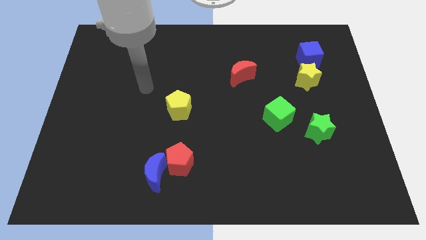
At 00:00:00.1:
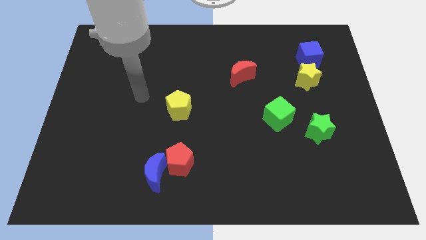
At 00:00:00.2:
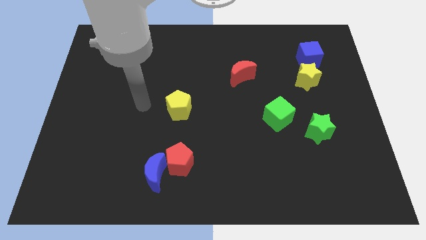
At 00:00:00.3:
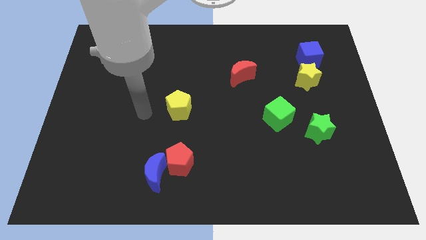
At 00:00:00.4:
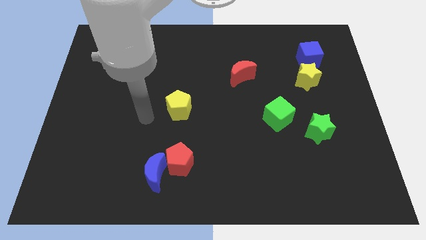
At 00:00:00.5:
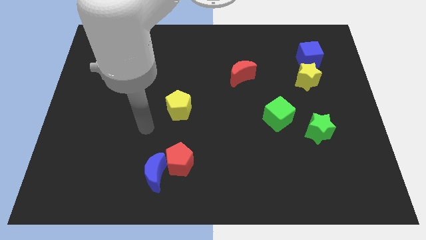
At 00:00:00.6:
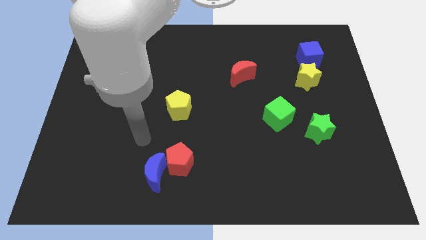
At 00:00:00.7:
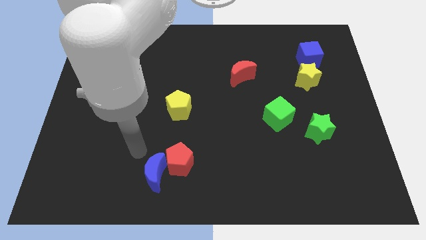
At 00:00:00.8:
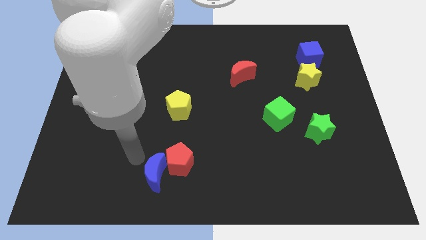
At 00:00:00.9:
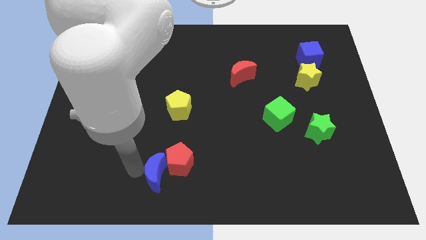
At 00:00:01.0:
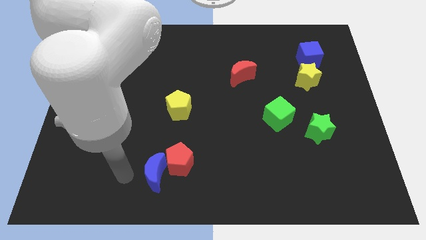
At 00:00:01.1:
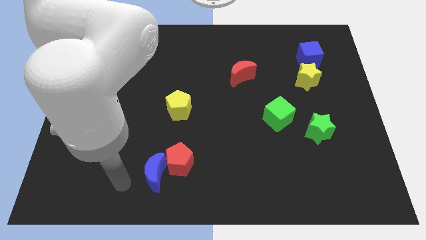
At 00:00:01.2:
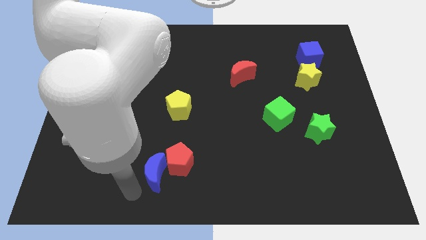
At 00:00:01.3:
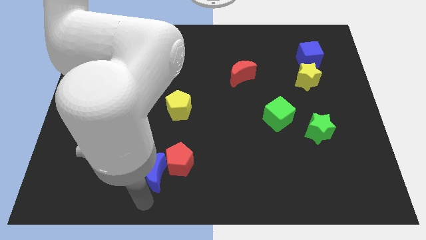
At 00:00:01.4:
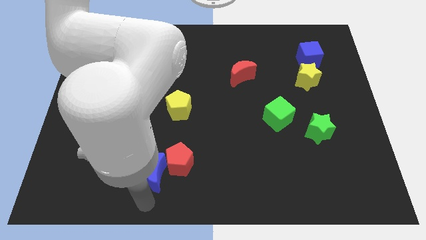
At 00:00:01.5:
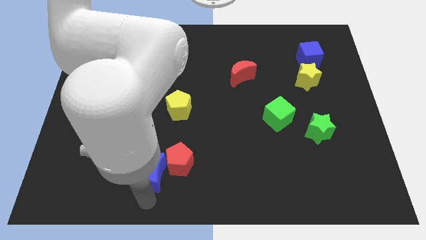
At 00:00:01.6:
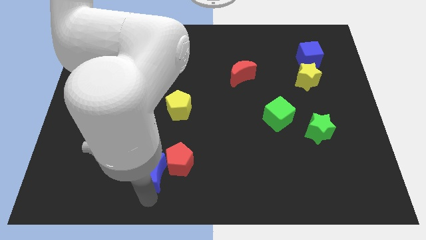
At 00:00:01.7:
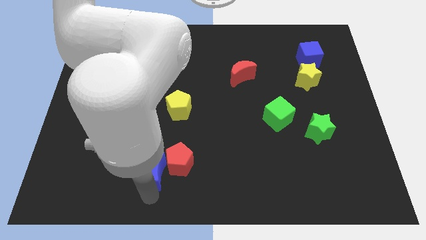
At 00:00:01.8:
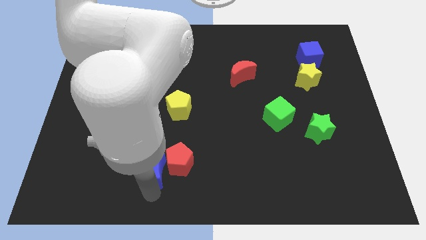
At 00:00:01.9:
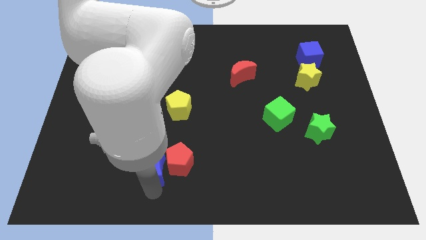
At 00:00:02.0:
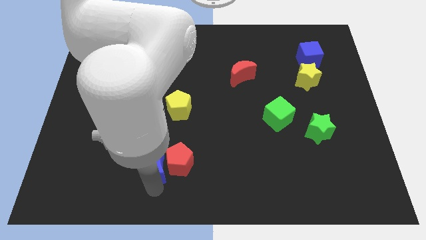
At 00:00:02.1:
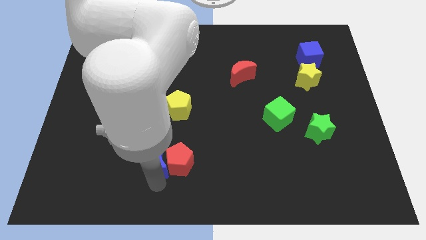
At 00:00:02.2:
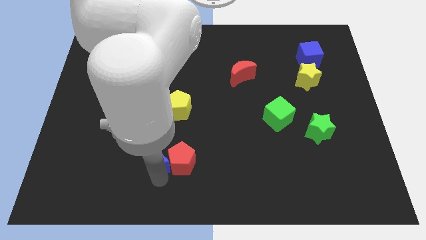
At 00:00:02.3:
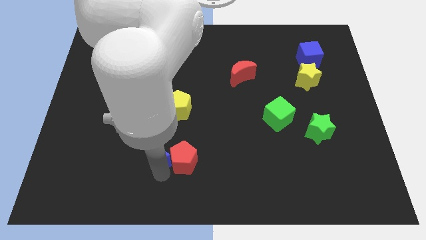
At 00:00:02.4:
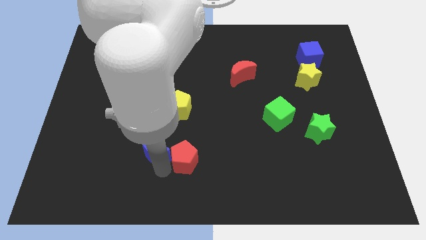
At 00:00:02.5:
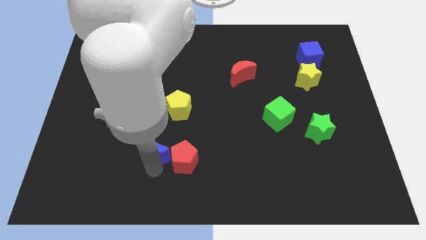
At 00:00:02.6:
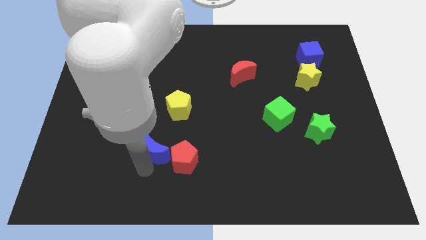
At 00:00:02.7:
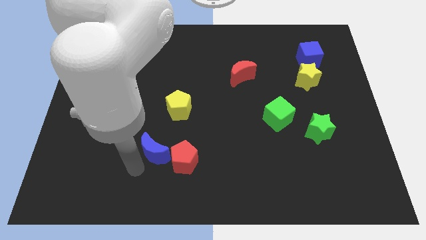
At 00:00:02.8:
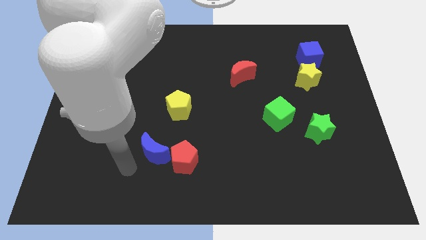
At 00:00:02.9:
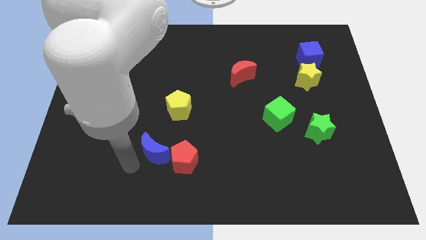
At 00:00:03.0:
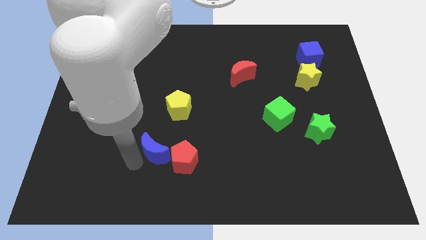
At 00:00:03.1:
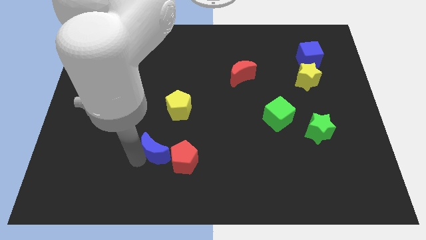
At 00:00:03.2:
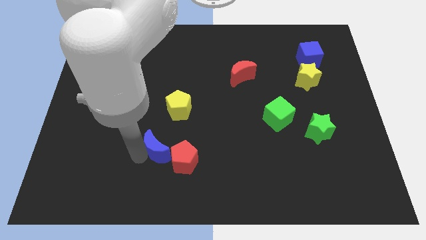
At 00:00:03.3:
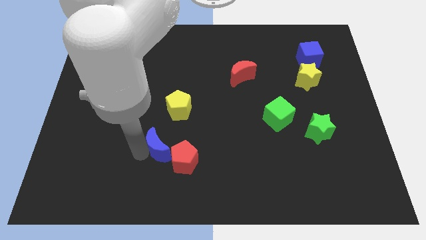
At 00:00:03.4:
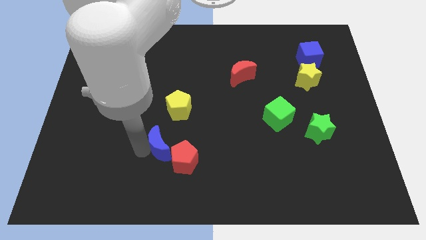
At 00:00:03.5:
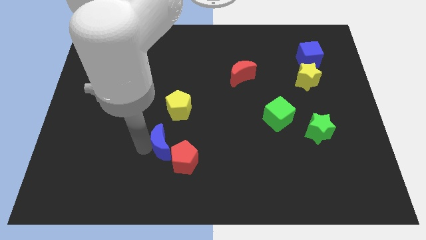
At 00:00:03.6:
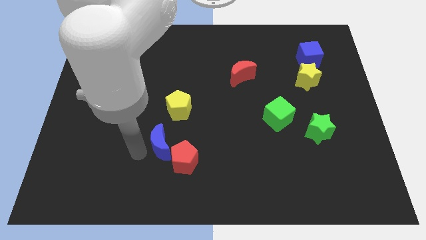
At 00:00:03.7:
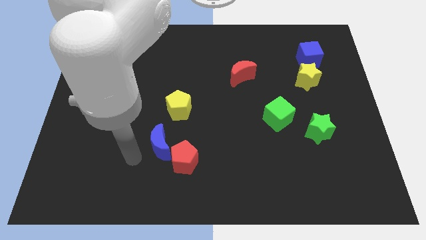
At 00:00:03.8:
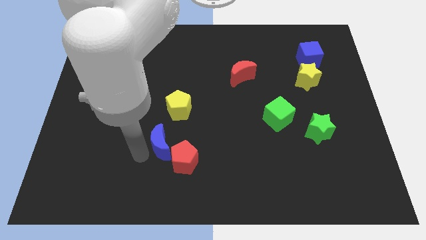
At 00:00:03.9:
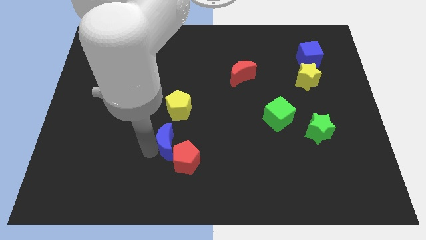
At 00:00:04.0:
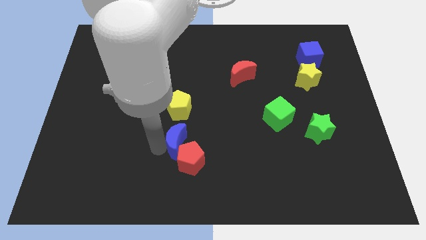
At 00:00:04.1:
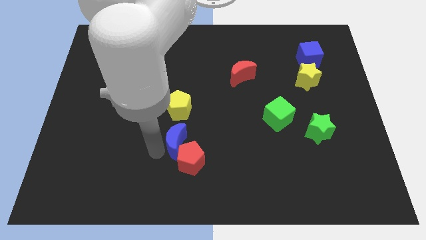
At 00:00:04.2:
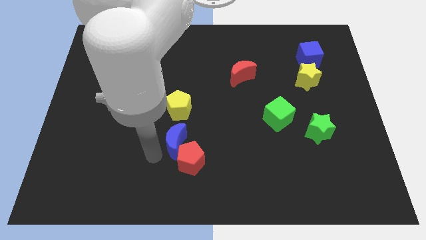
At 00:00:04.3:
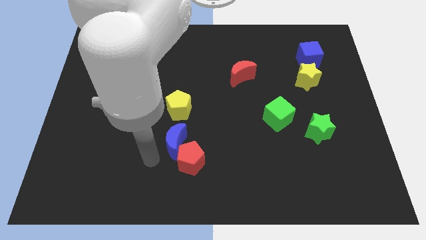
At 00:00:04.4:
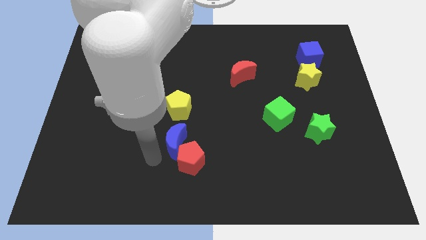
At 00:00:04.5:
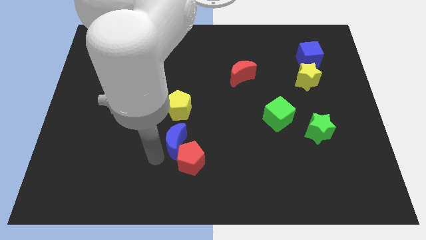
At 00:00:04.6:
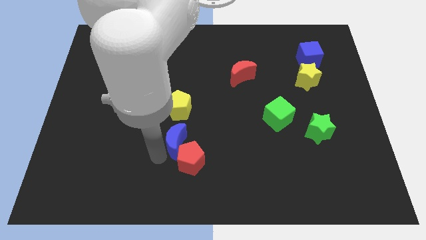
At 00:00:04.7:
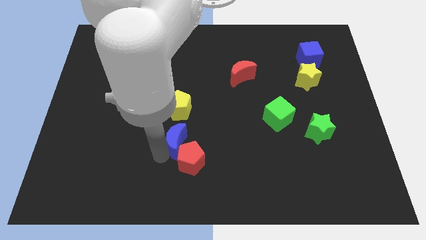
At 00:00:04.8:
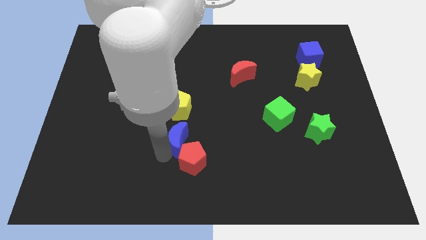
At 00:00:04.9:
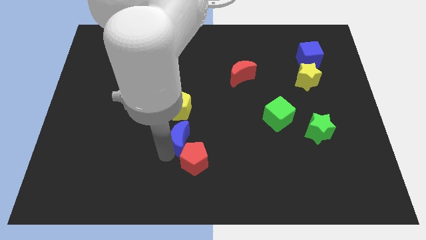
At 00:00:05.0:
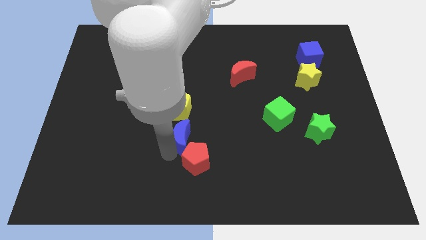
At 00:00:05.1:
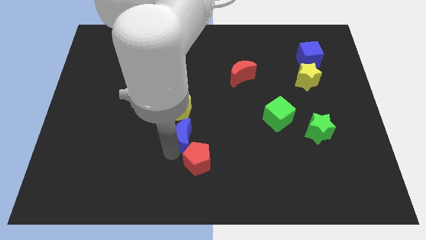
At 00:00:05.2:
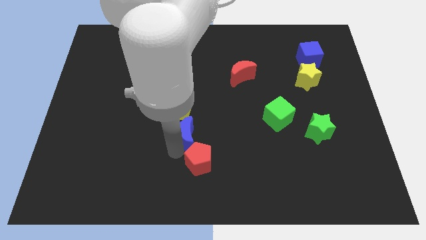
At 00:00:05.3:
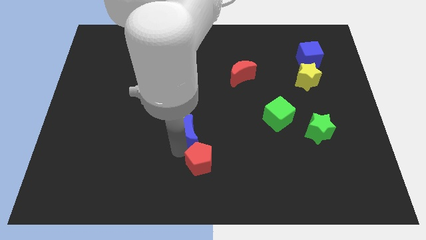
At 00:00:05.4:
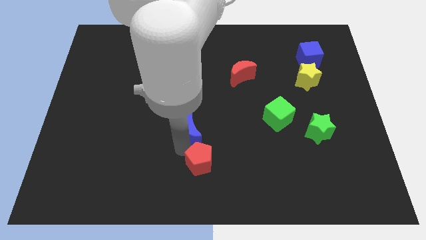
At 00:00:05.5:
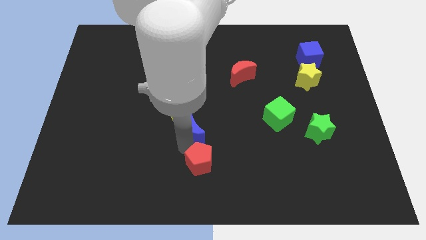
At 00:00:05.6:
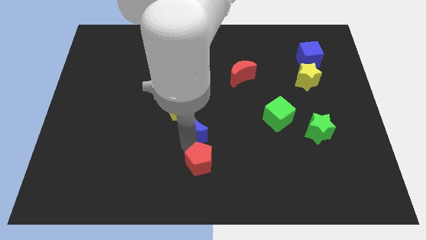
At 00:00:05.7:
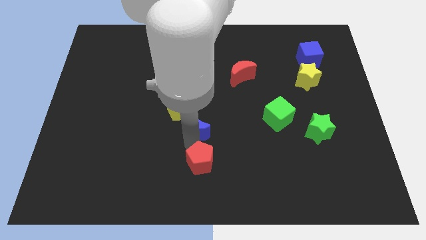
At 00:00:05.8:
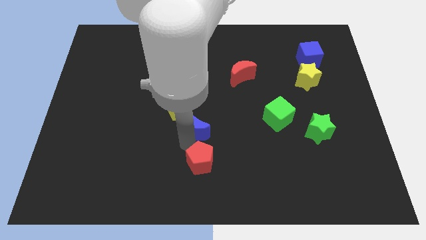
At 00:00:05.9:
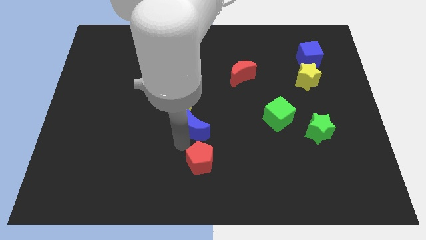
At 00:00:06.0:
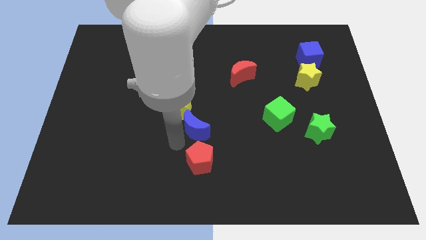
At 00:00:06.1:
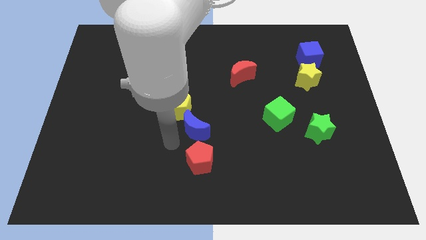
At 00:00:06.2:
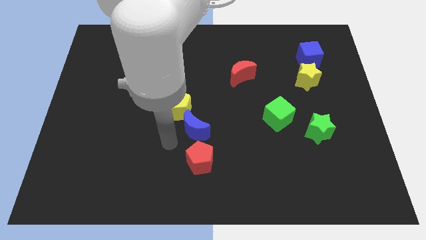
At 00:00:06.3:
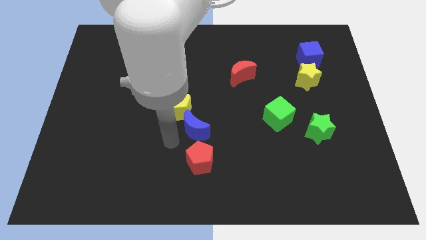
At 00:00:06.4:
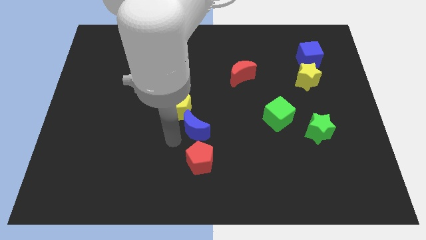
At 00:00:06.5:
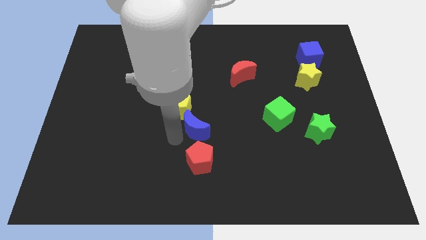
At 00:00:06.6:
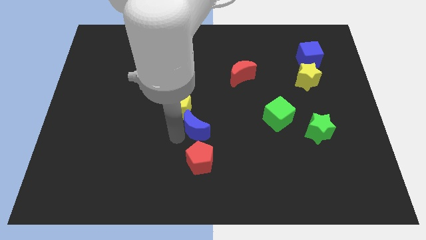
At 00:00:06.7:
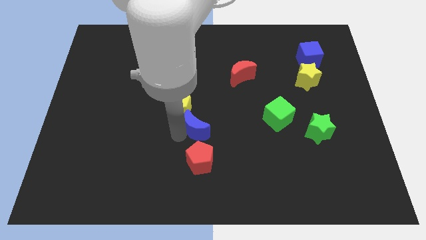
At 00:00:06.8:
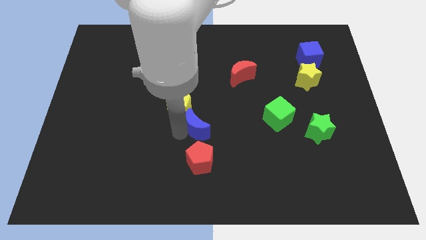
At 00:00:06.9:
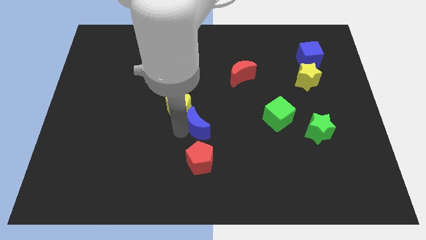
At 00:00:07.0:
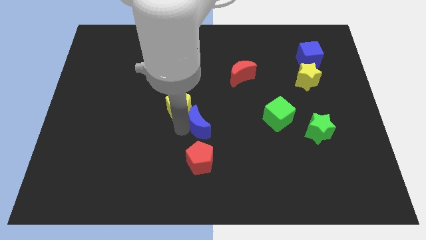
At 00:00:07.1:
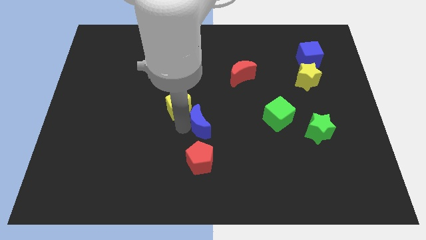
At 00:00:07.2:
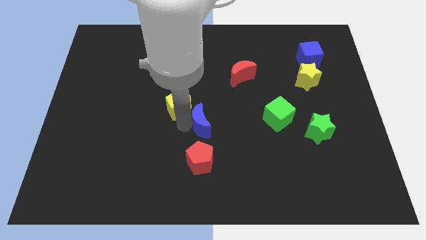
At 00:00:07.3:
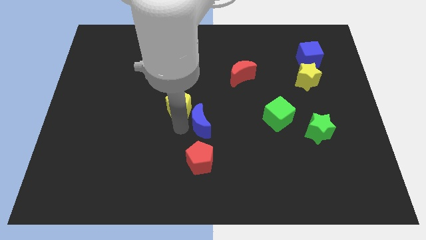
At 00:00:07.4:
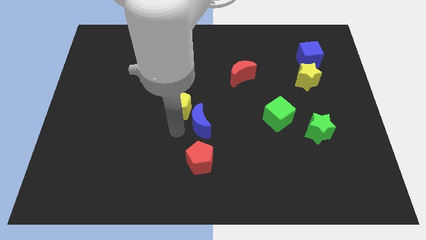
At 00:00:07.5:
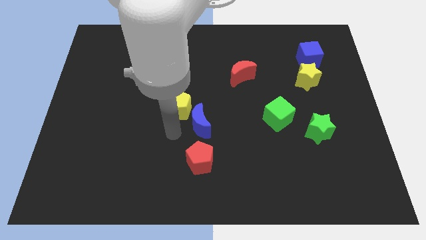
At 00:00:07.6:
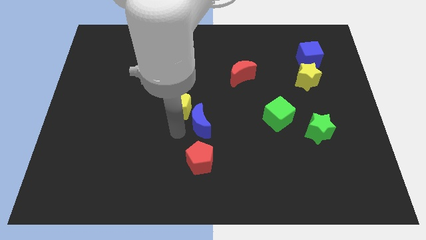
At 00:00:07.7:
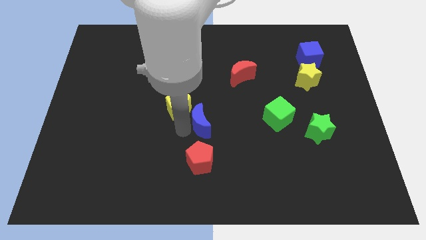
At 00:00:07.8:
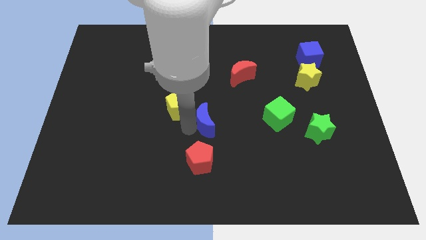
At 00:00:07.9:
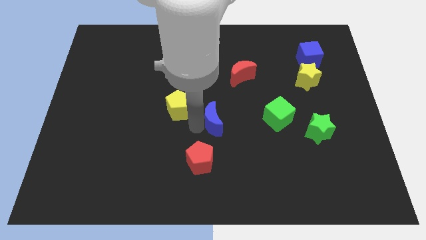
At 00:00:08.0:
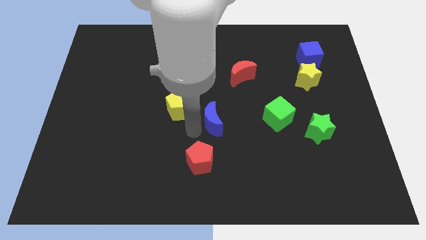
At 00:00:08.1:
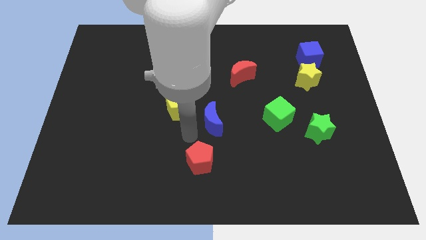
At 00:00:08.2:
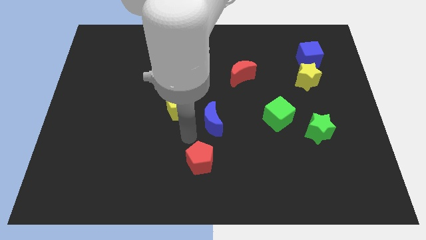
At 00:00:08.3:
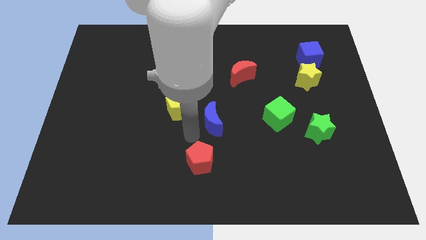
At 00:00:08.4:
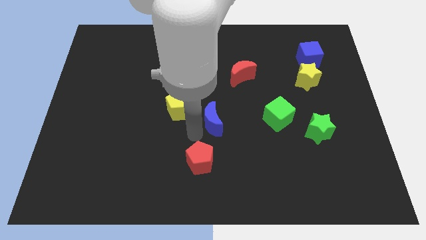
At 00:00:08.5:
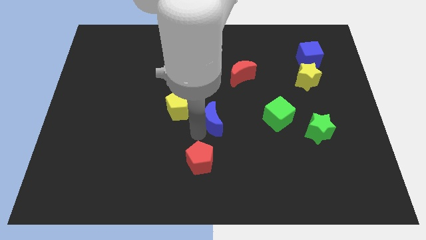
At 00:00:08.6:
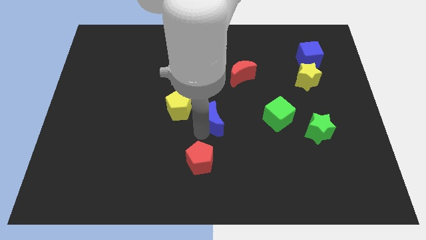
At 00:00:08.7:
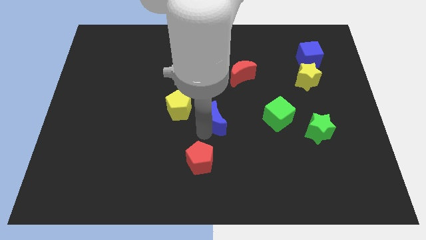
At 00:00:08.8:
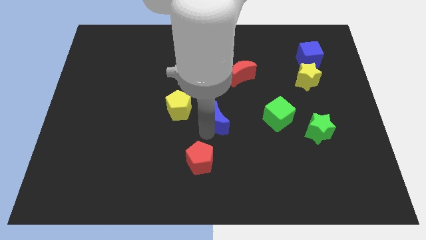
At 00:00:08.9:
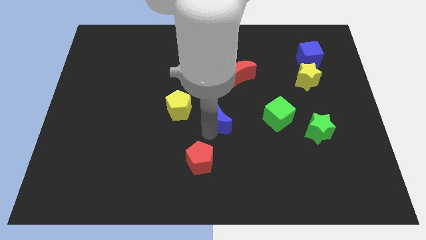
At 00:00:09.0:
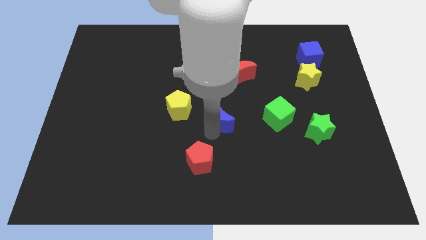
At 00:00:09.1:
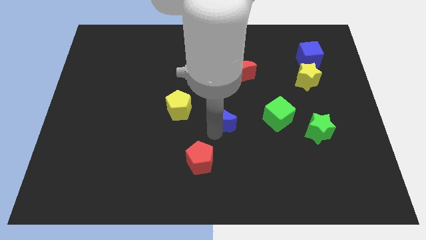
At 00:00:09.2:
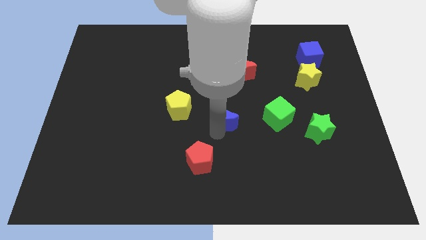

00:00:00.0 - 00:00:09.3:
push the blue moon diagonally upwards and right
